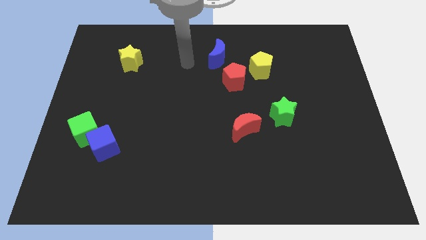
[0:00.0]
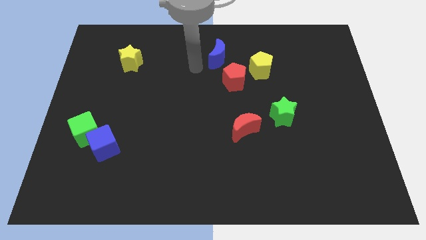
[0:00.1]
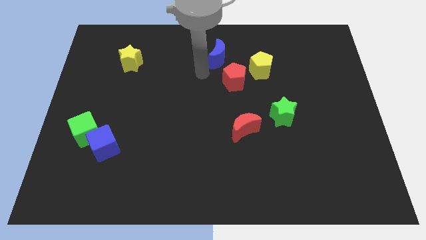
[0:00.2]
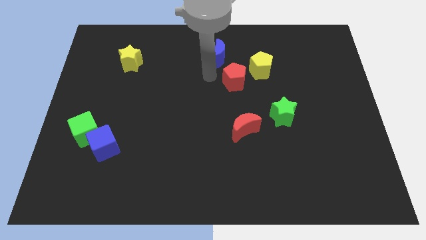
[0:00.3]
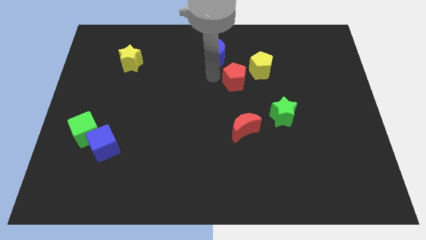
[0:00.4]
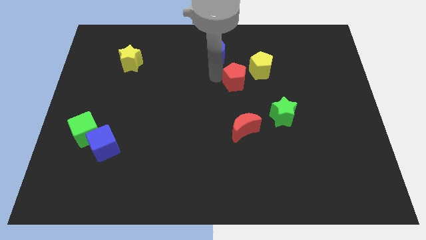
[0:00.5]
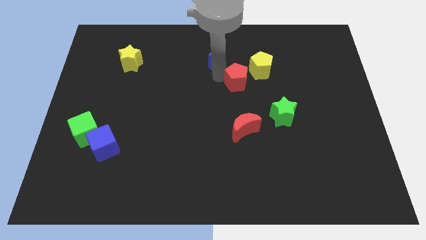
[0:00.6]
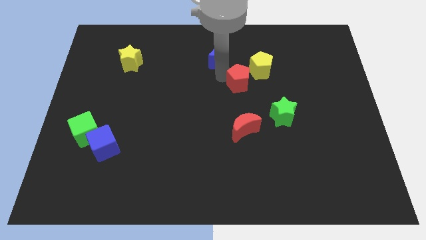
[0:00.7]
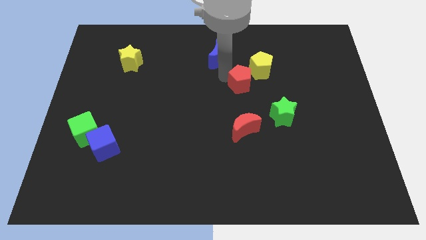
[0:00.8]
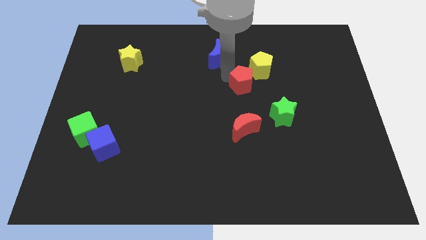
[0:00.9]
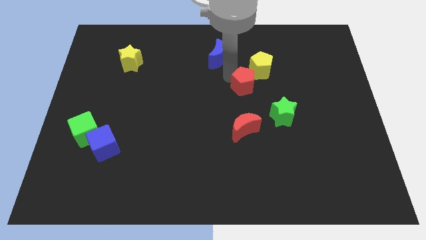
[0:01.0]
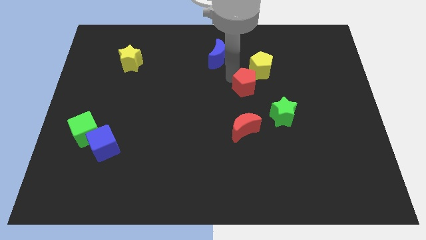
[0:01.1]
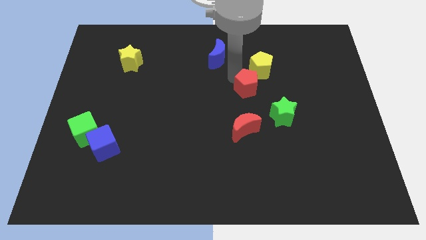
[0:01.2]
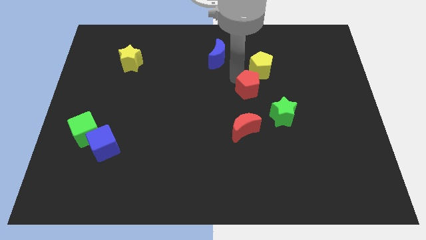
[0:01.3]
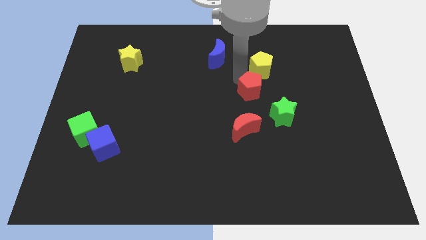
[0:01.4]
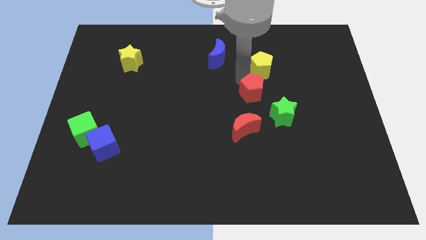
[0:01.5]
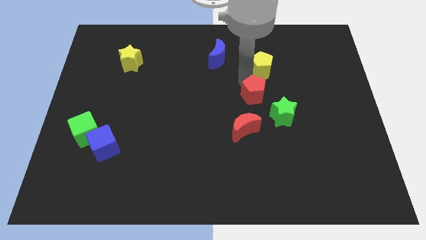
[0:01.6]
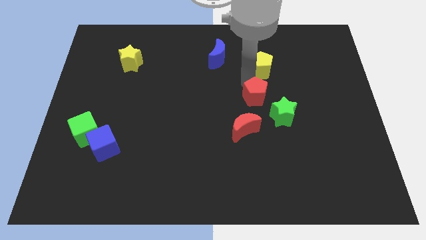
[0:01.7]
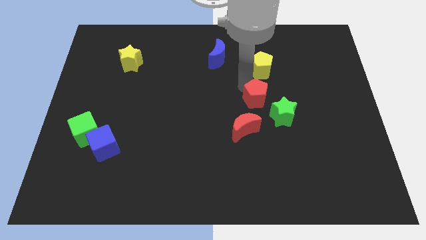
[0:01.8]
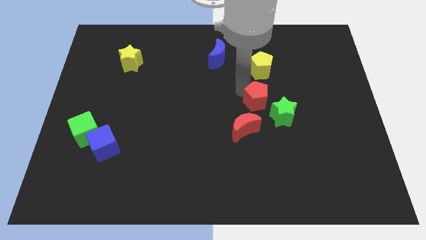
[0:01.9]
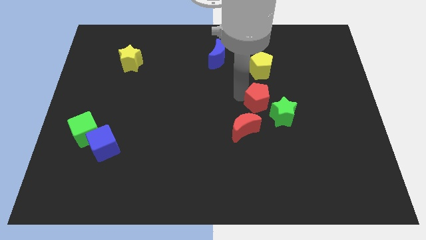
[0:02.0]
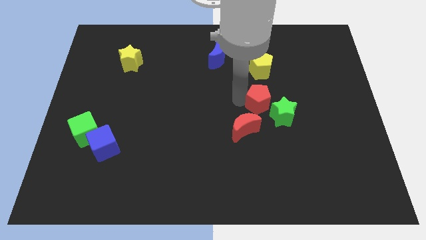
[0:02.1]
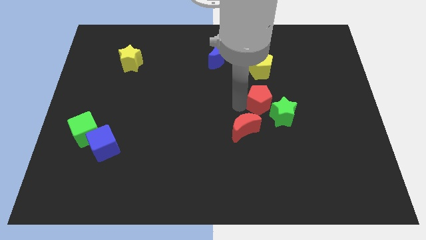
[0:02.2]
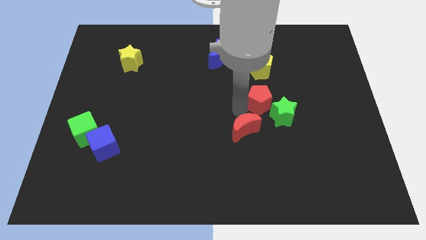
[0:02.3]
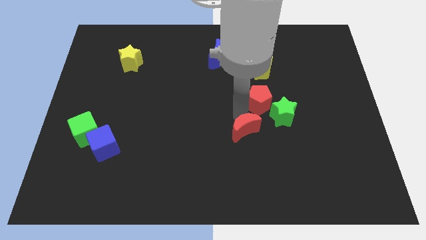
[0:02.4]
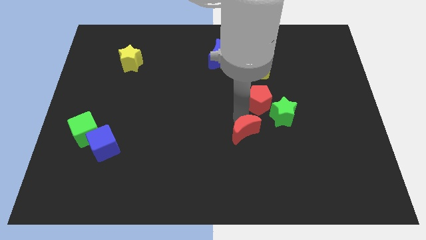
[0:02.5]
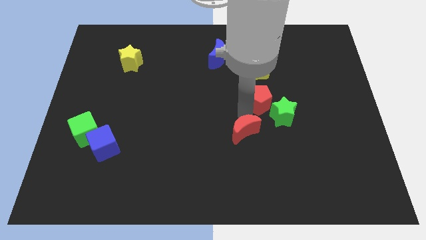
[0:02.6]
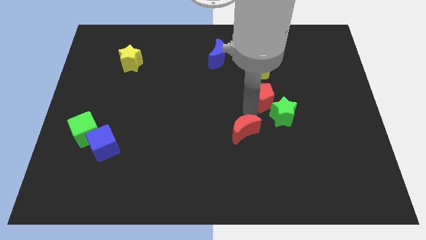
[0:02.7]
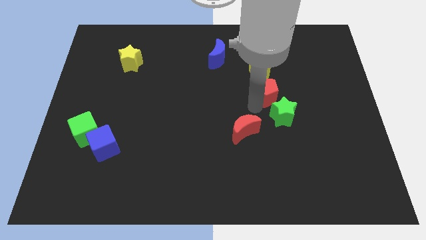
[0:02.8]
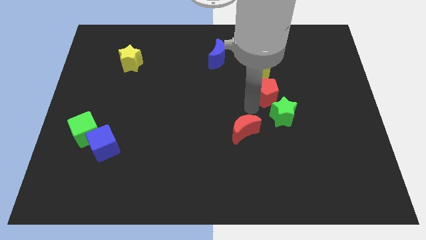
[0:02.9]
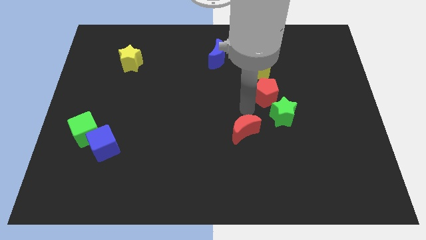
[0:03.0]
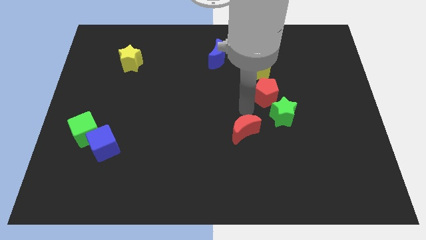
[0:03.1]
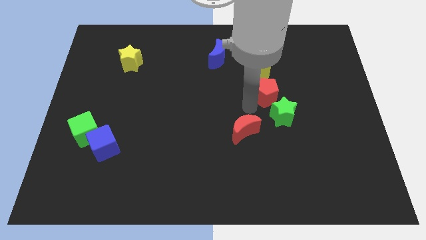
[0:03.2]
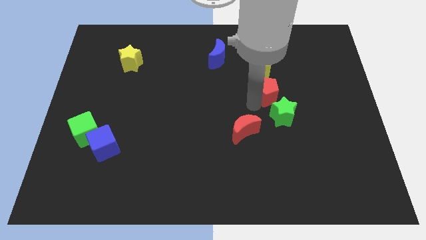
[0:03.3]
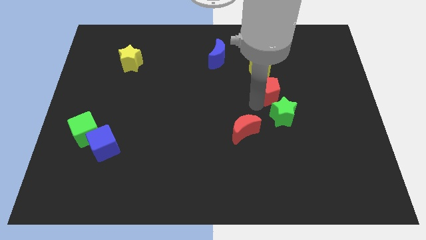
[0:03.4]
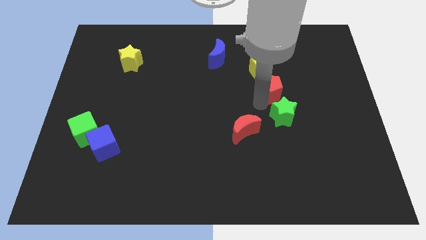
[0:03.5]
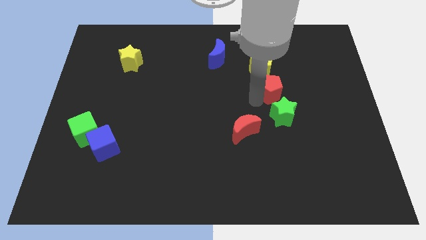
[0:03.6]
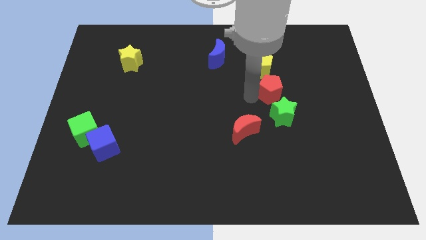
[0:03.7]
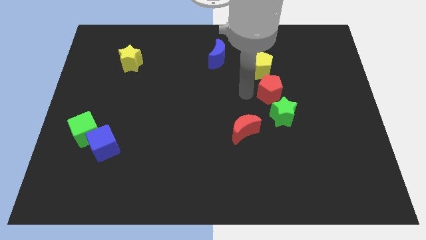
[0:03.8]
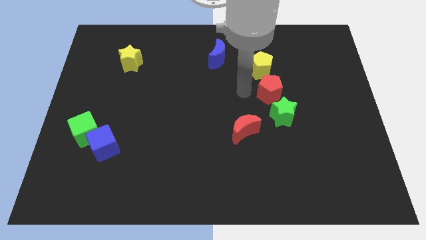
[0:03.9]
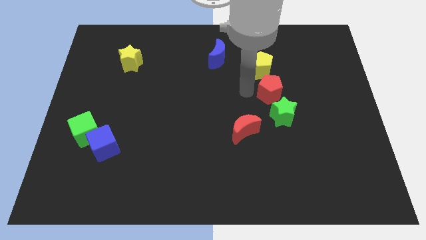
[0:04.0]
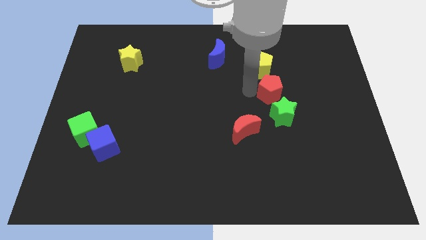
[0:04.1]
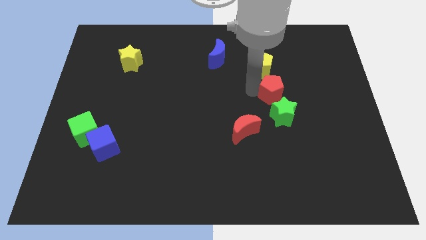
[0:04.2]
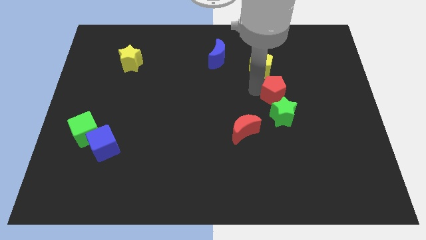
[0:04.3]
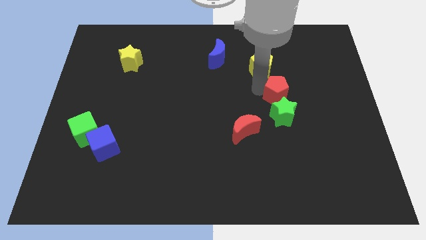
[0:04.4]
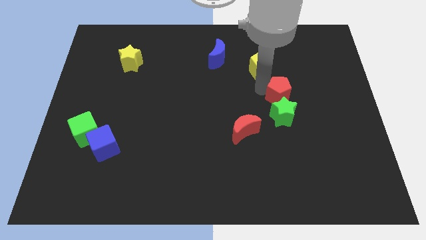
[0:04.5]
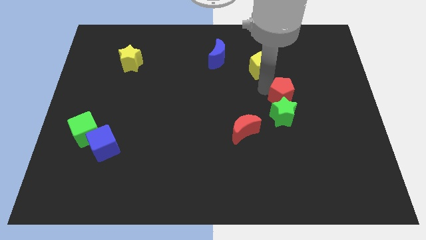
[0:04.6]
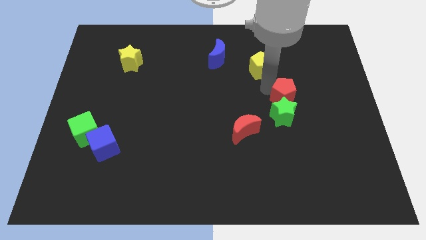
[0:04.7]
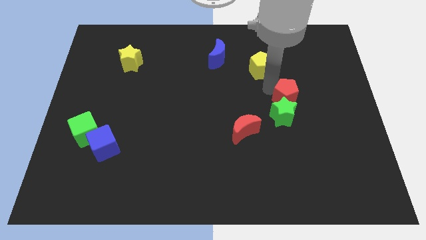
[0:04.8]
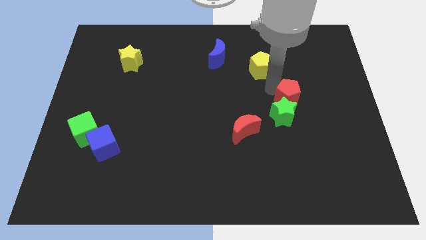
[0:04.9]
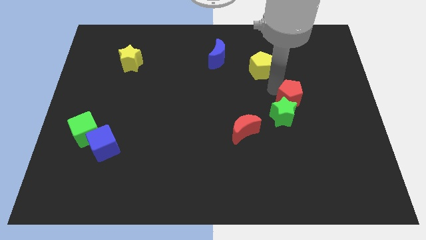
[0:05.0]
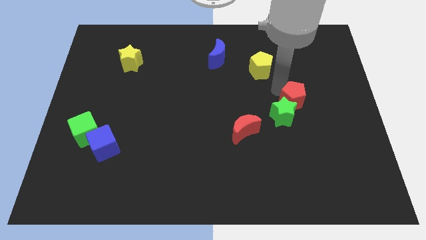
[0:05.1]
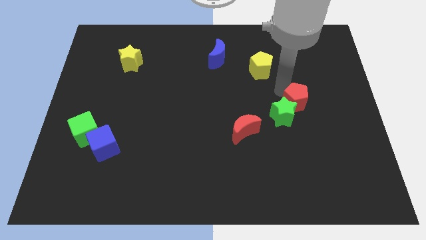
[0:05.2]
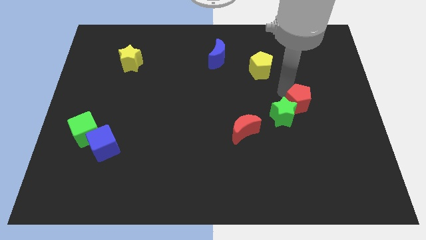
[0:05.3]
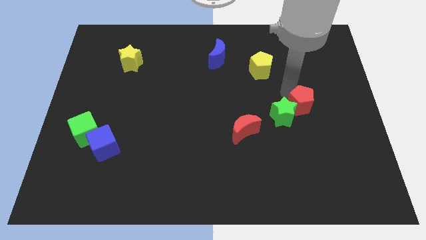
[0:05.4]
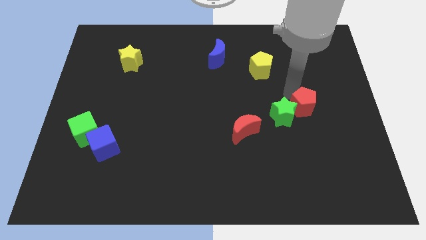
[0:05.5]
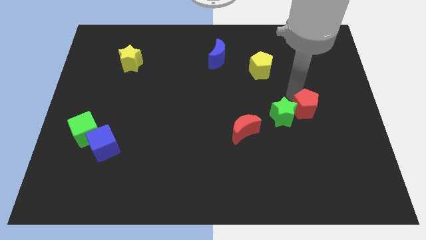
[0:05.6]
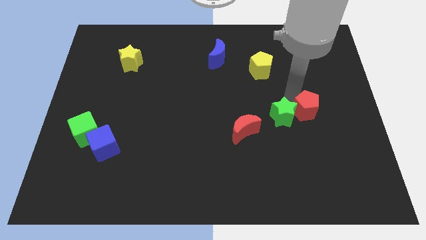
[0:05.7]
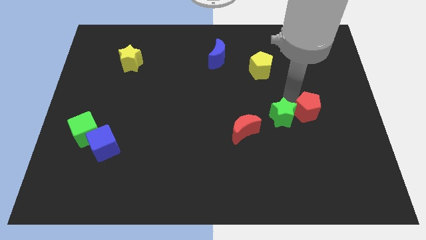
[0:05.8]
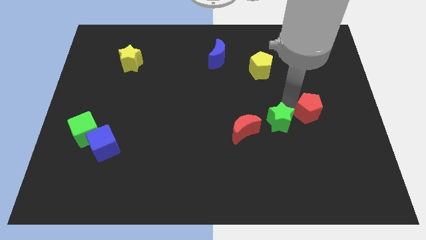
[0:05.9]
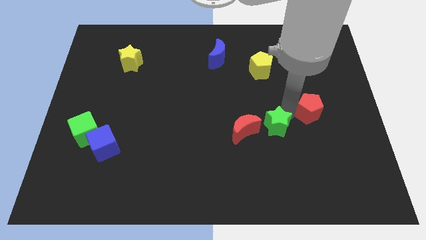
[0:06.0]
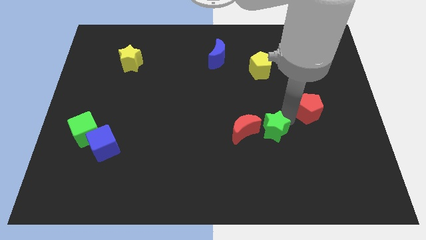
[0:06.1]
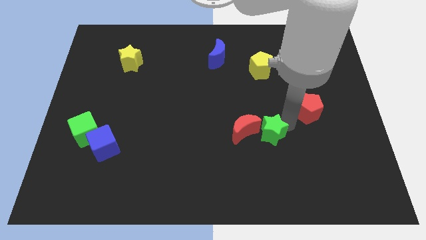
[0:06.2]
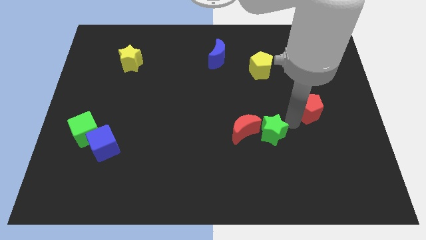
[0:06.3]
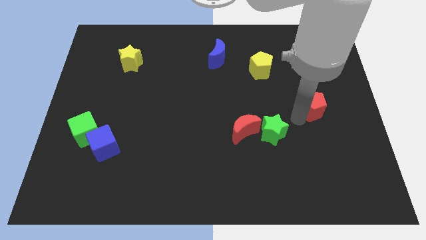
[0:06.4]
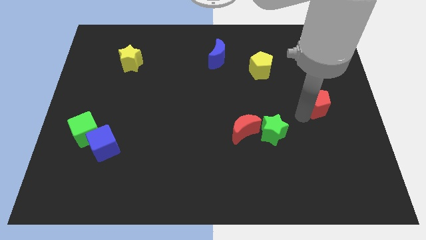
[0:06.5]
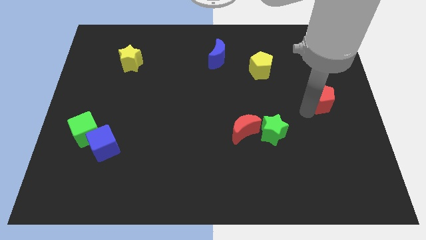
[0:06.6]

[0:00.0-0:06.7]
move the red pentagon to the right side of the board
